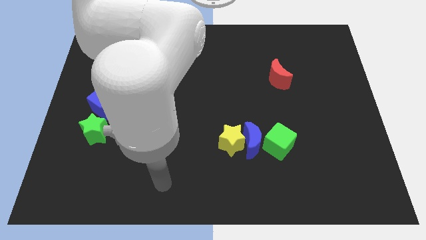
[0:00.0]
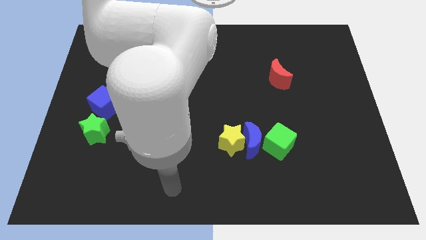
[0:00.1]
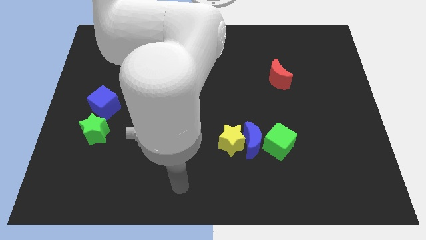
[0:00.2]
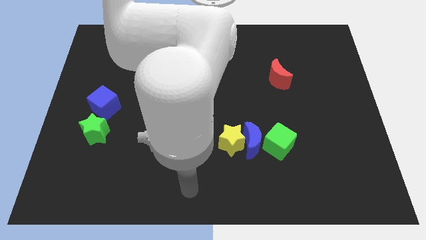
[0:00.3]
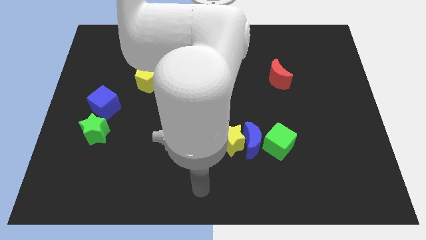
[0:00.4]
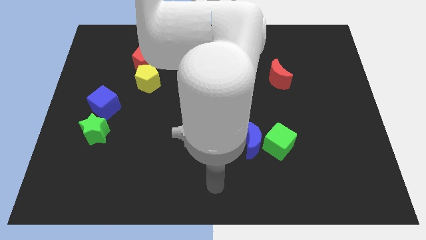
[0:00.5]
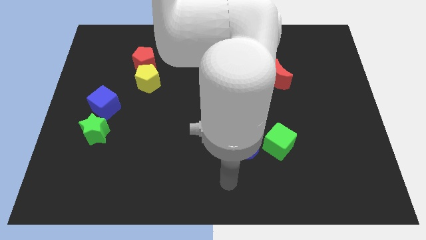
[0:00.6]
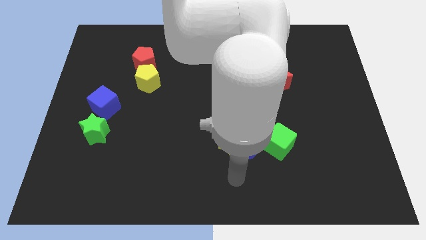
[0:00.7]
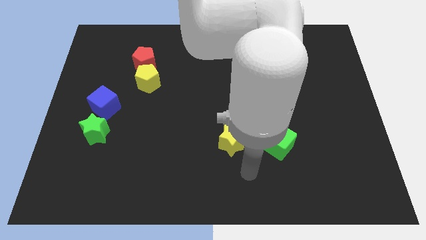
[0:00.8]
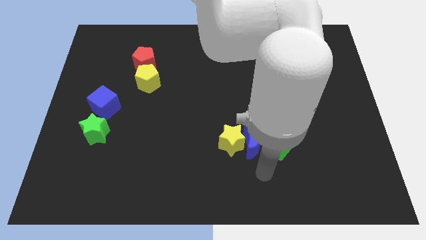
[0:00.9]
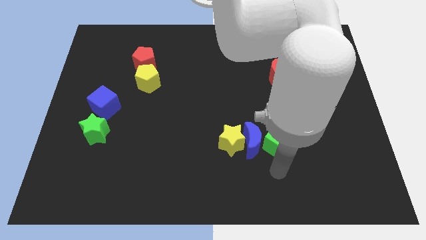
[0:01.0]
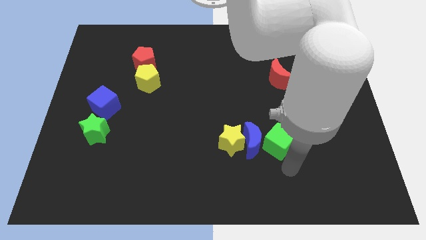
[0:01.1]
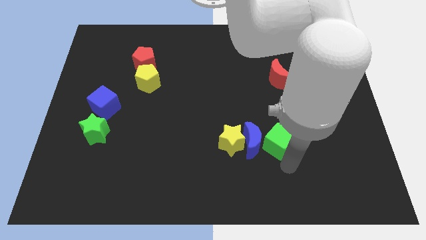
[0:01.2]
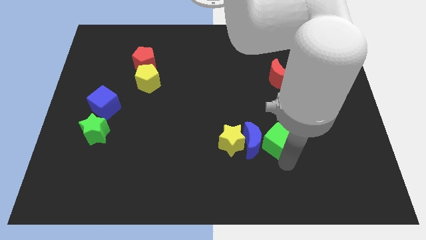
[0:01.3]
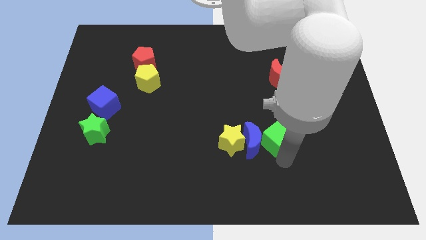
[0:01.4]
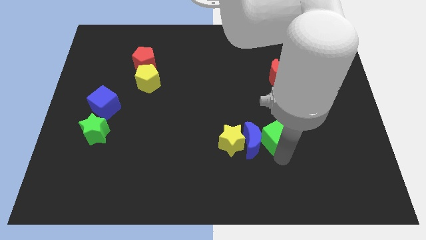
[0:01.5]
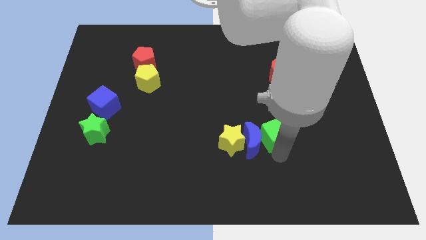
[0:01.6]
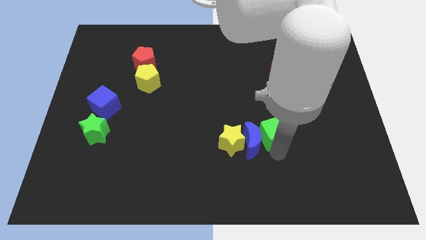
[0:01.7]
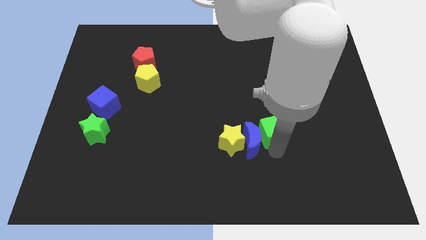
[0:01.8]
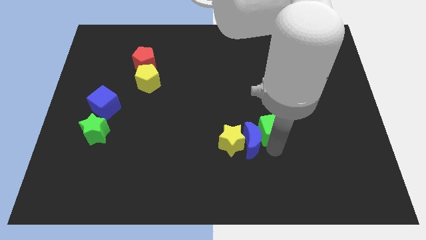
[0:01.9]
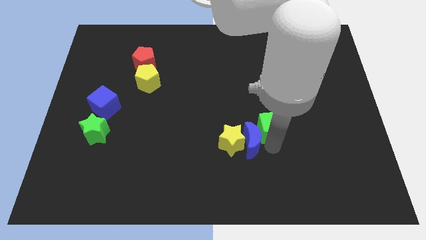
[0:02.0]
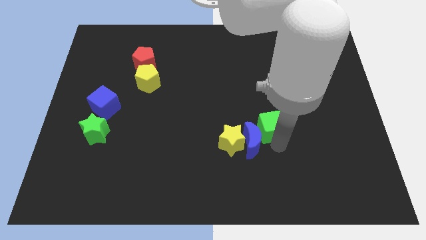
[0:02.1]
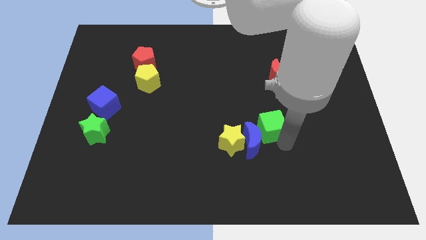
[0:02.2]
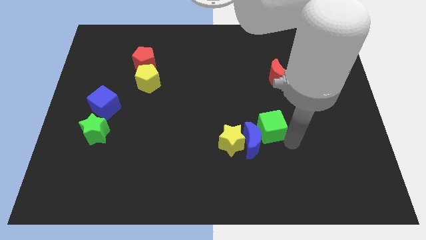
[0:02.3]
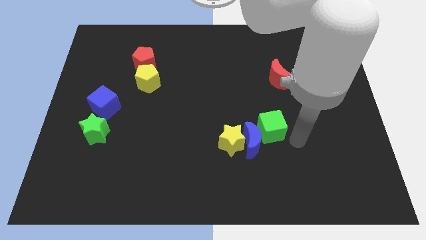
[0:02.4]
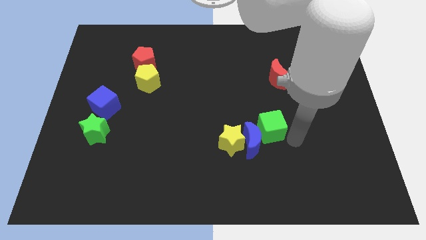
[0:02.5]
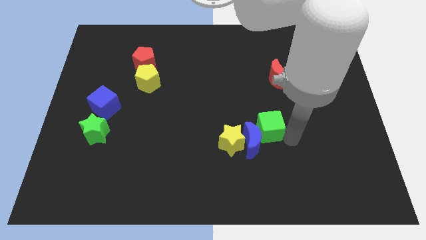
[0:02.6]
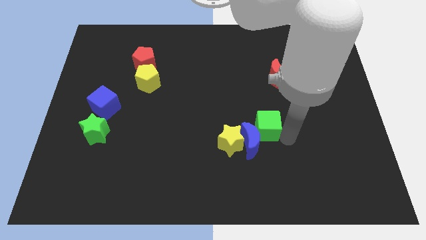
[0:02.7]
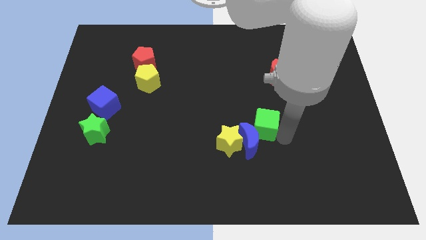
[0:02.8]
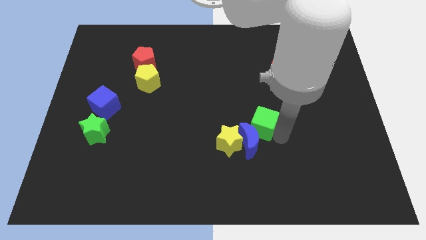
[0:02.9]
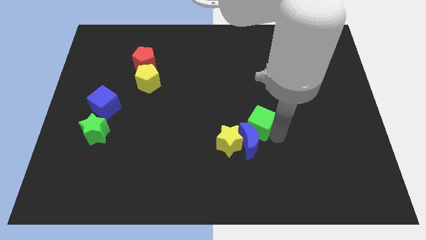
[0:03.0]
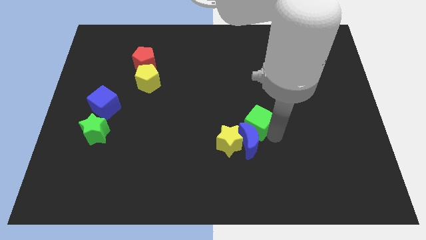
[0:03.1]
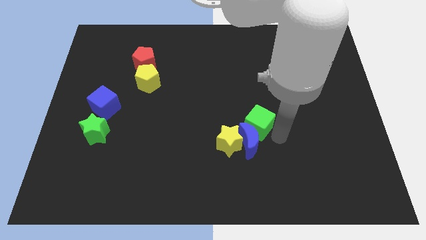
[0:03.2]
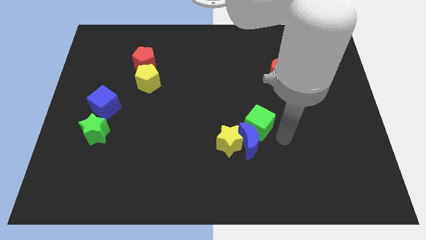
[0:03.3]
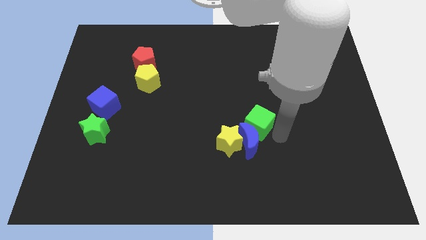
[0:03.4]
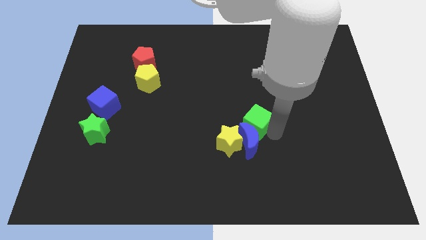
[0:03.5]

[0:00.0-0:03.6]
slightly slide the green cube up and then left

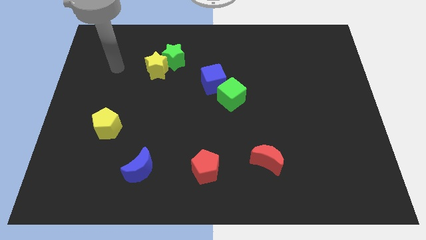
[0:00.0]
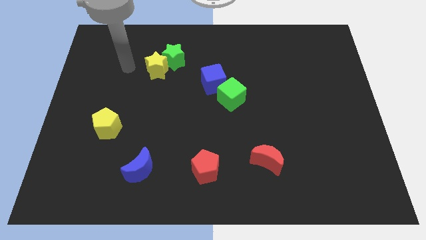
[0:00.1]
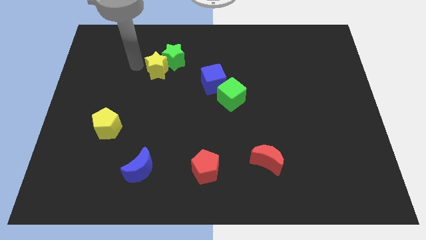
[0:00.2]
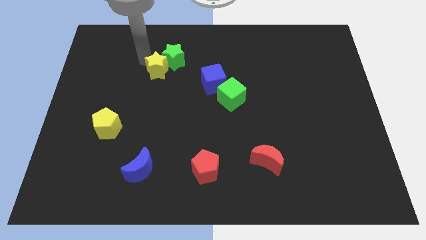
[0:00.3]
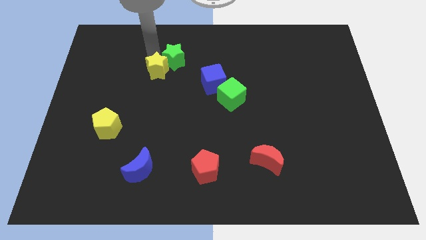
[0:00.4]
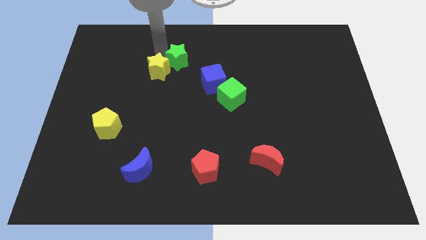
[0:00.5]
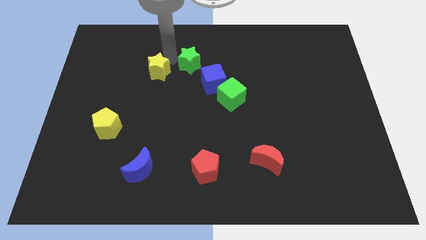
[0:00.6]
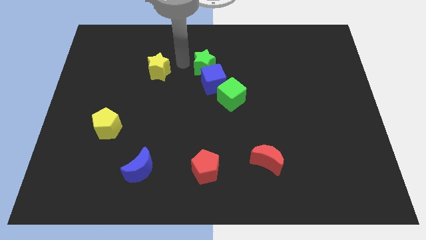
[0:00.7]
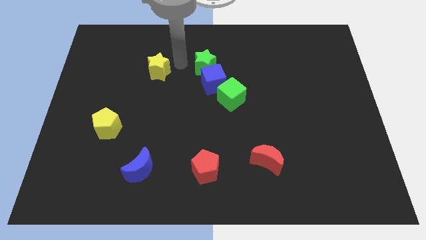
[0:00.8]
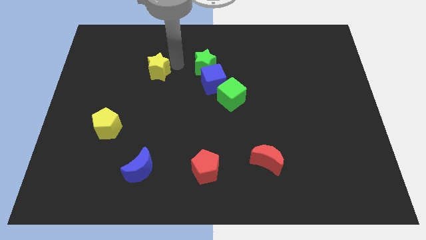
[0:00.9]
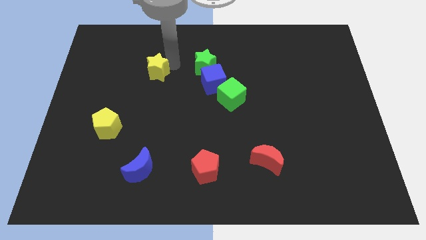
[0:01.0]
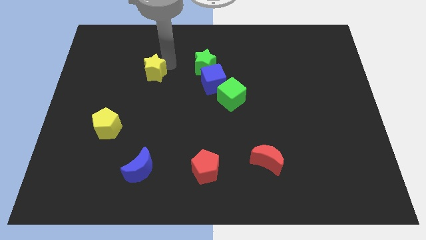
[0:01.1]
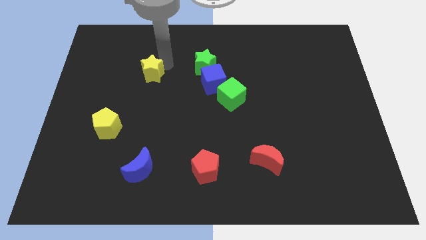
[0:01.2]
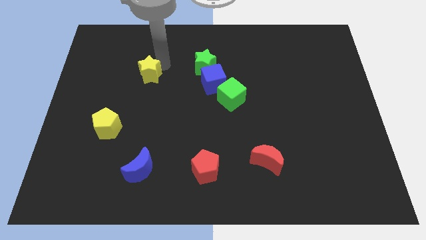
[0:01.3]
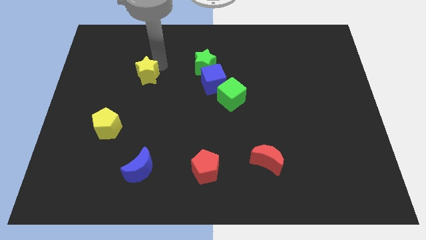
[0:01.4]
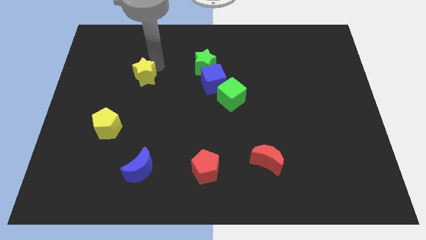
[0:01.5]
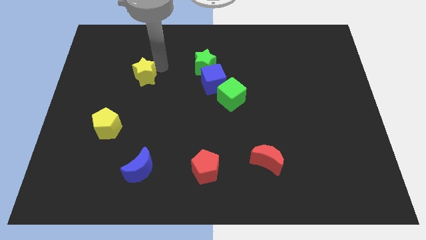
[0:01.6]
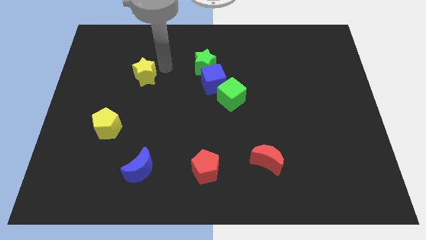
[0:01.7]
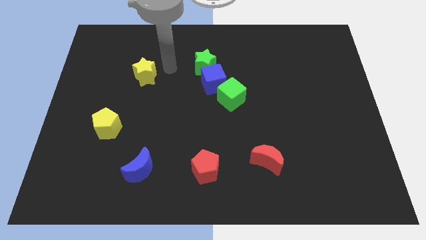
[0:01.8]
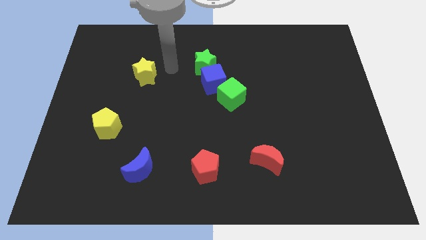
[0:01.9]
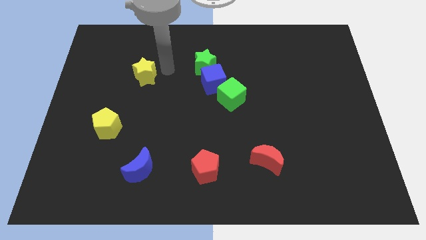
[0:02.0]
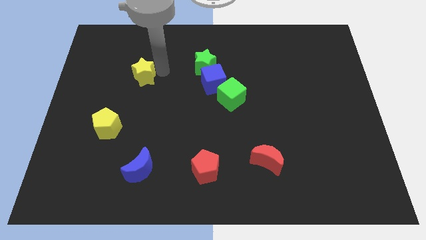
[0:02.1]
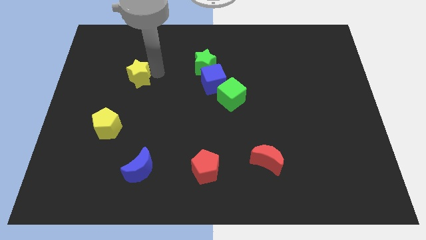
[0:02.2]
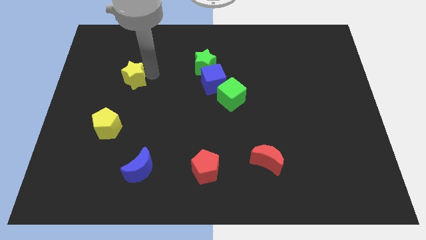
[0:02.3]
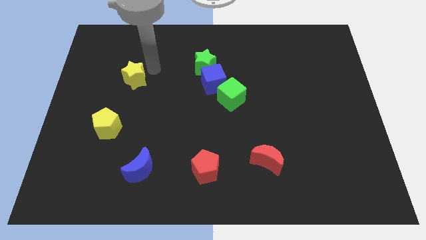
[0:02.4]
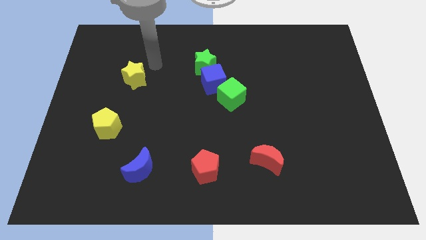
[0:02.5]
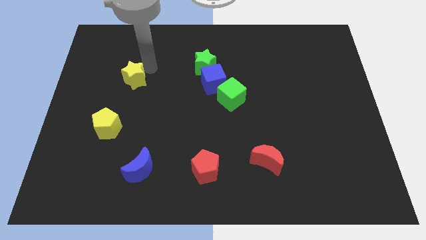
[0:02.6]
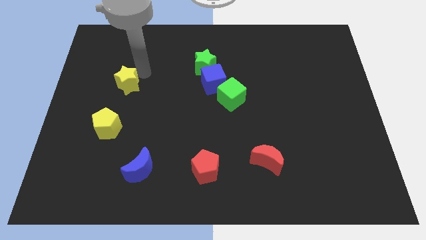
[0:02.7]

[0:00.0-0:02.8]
slide the yellow star down and left slightly

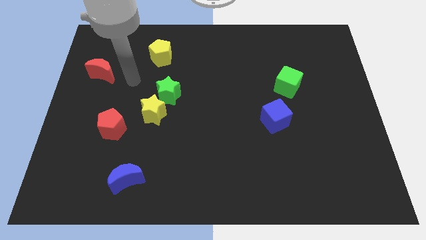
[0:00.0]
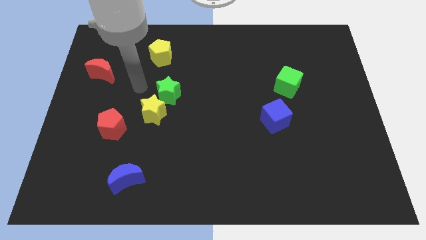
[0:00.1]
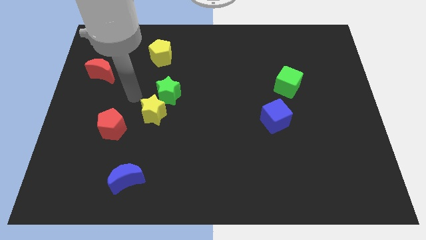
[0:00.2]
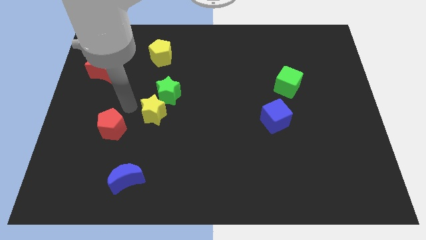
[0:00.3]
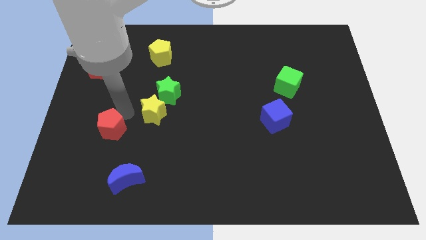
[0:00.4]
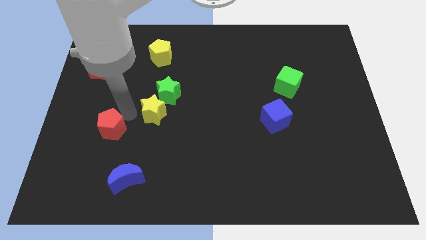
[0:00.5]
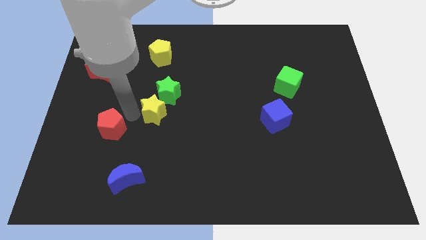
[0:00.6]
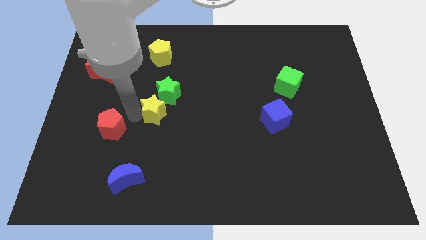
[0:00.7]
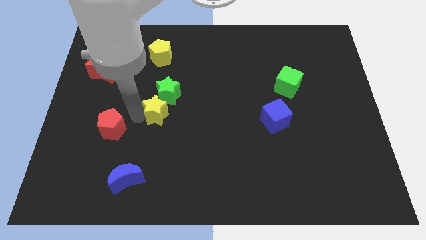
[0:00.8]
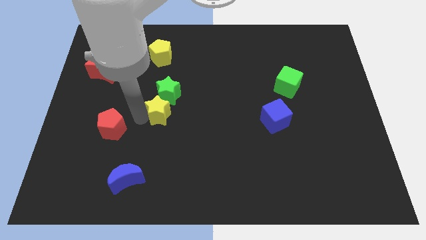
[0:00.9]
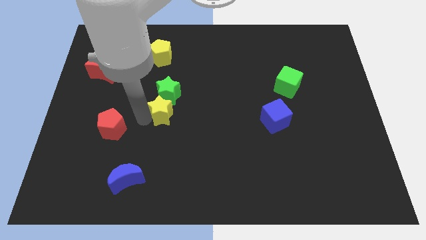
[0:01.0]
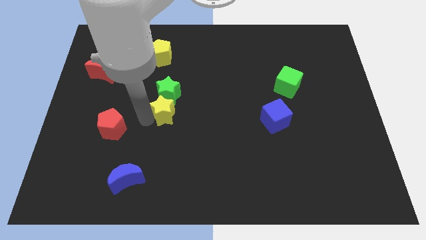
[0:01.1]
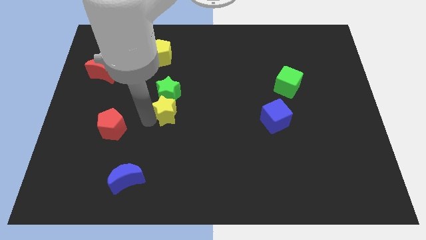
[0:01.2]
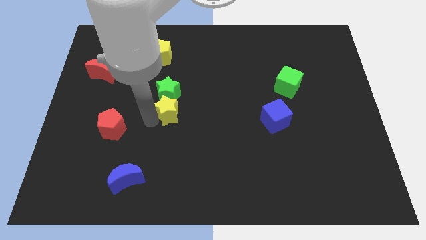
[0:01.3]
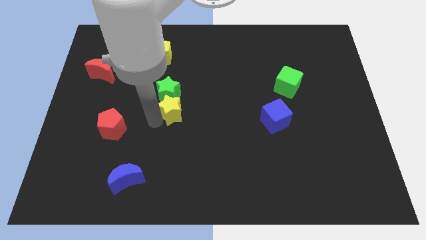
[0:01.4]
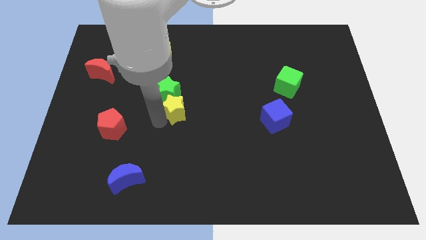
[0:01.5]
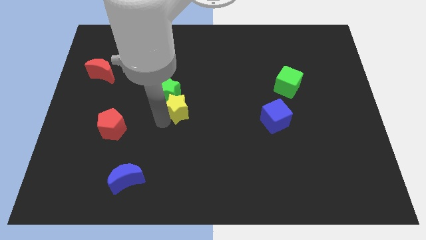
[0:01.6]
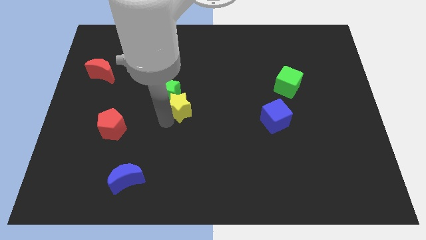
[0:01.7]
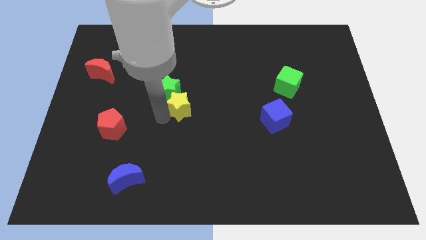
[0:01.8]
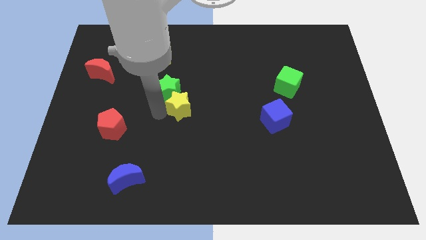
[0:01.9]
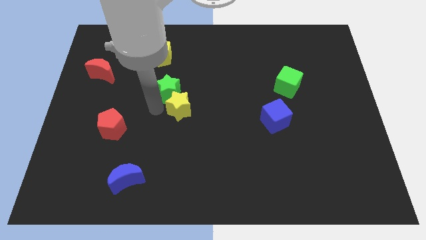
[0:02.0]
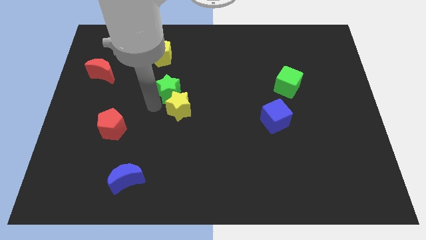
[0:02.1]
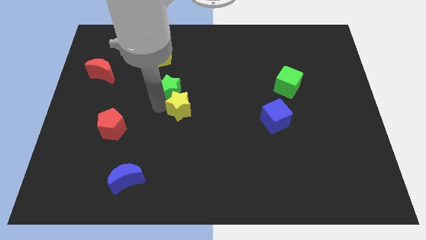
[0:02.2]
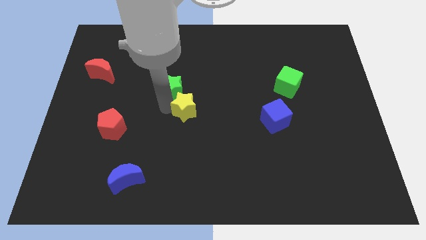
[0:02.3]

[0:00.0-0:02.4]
slide the yellow star a little bit right
